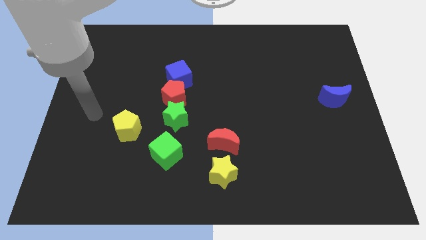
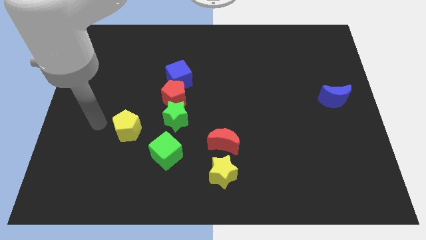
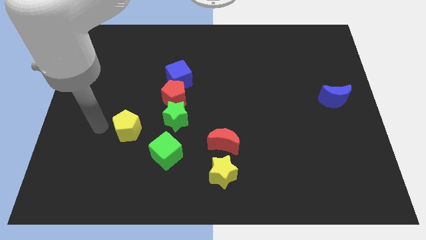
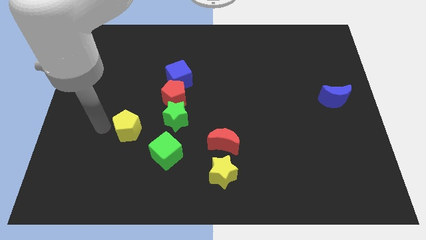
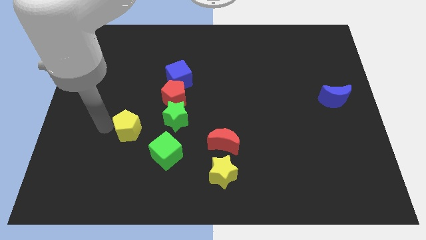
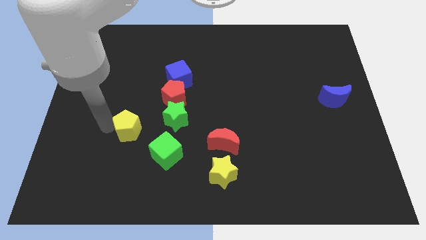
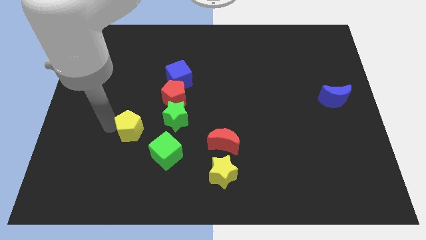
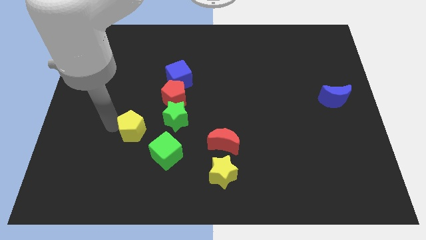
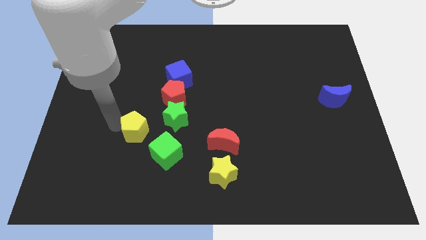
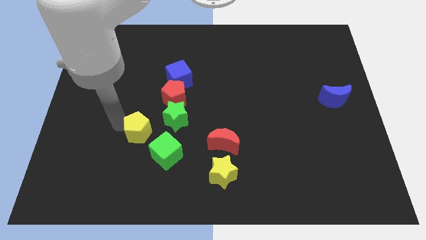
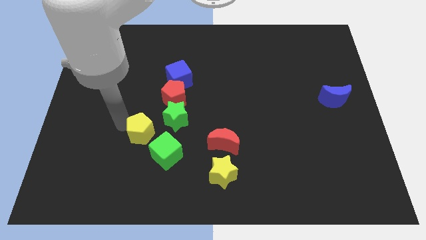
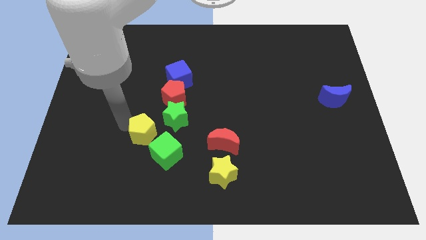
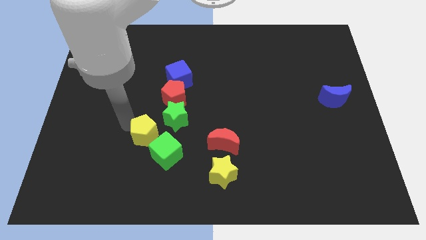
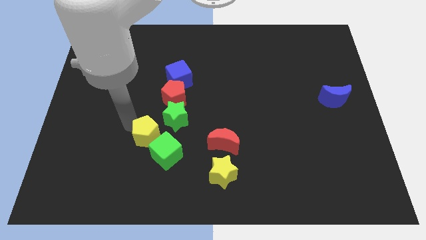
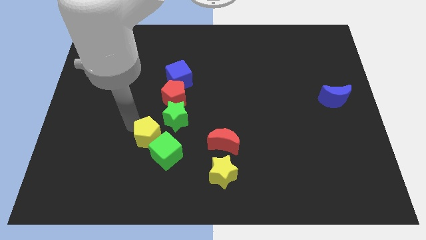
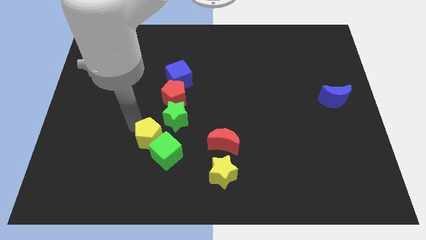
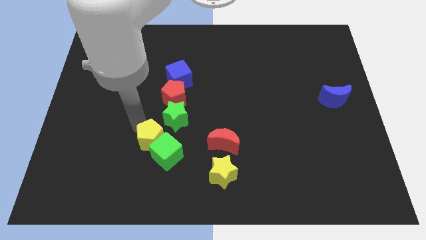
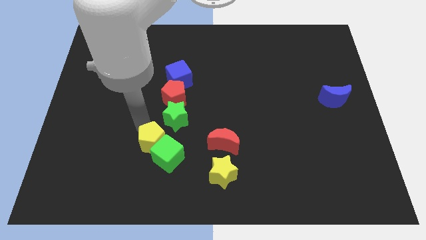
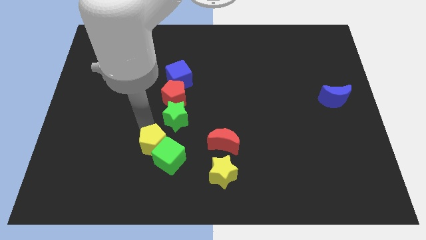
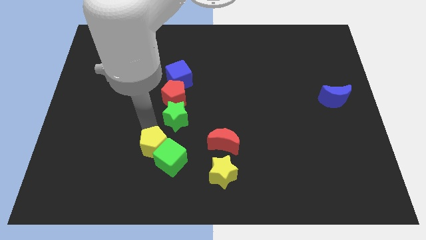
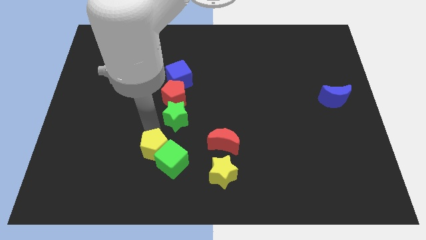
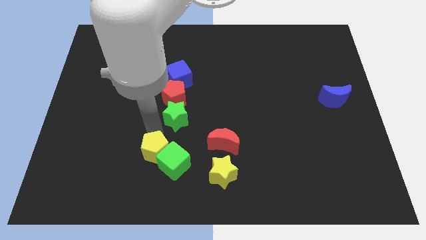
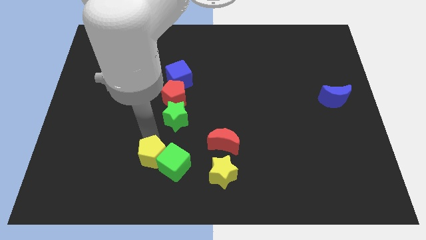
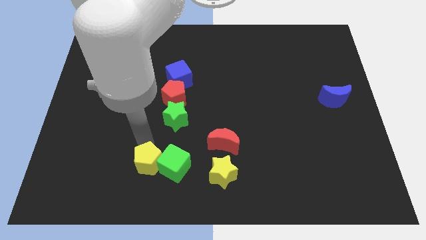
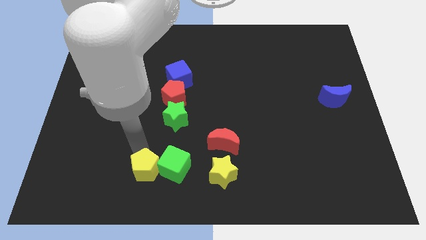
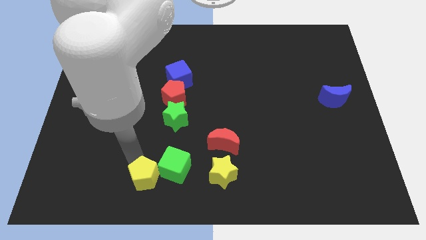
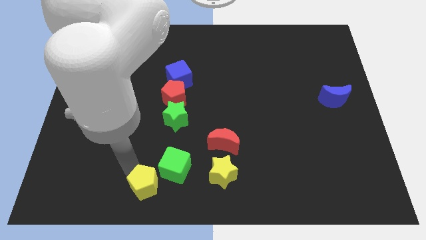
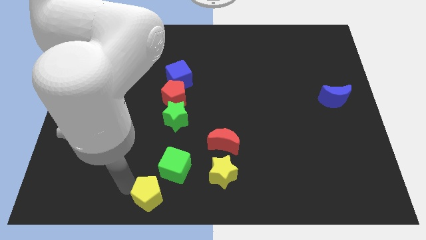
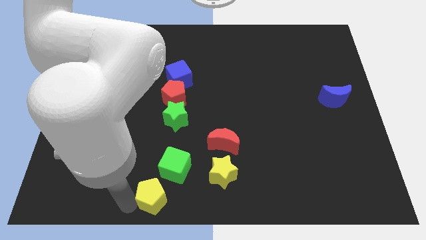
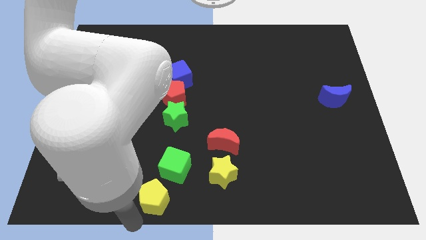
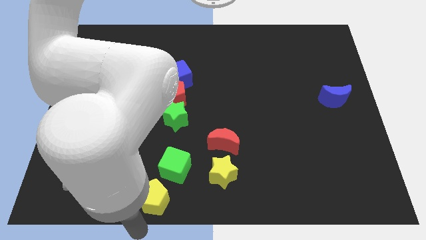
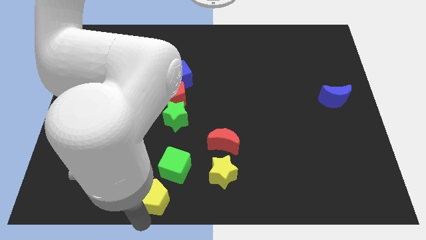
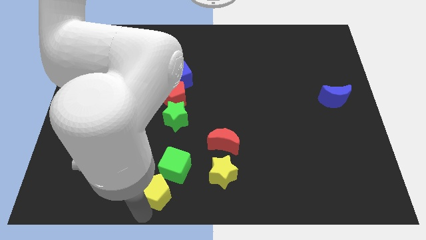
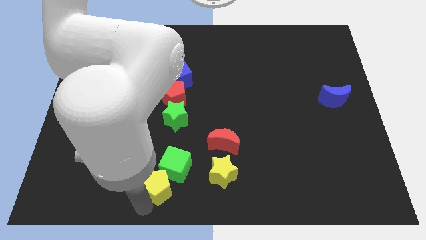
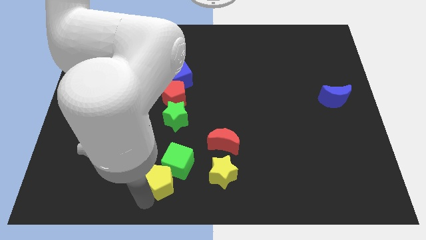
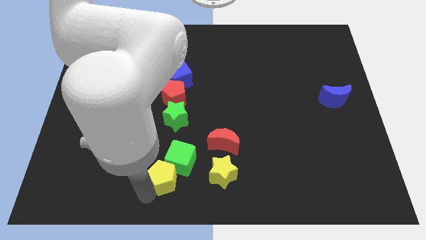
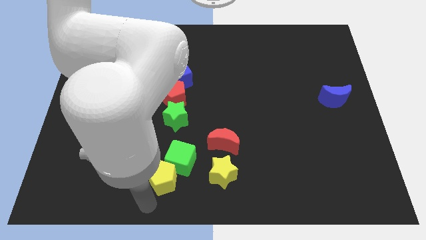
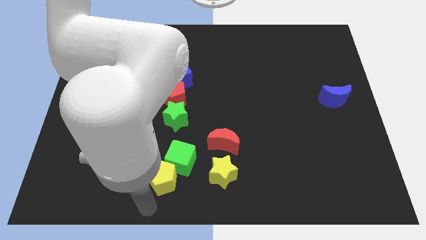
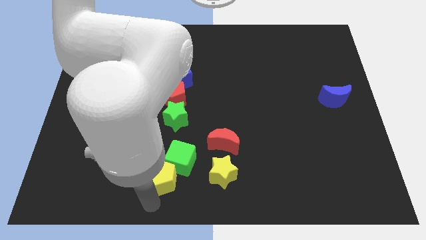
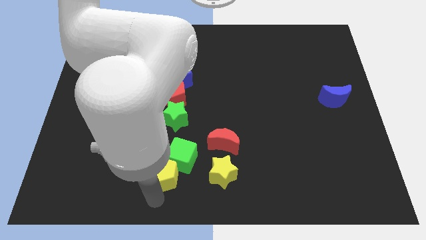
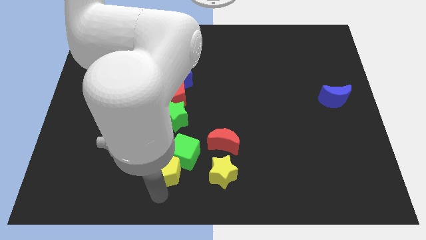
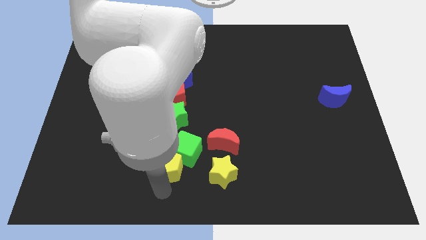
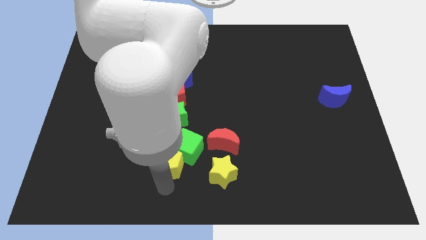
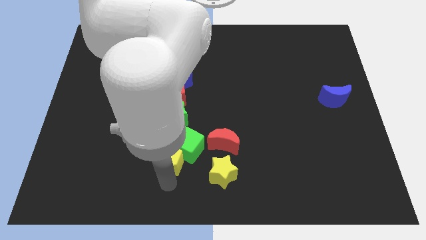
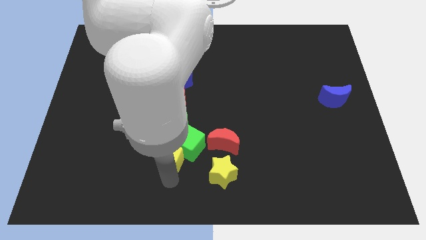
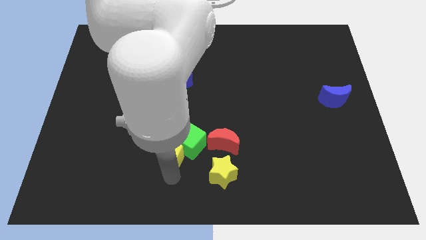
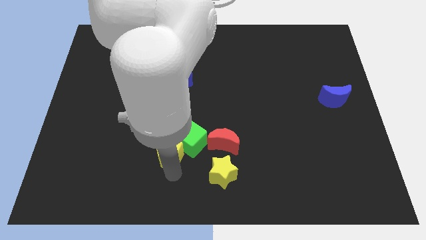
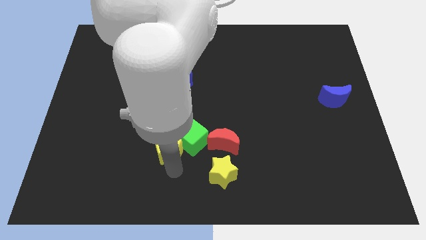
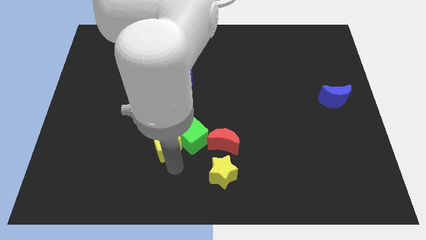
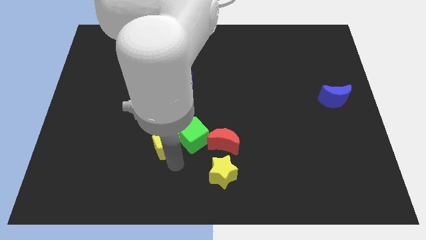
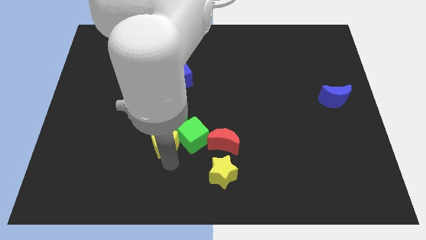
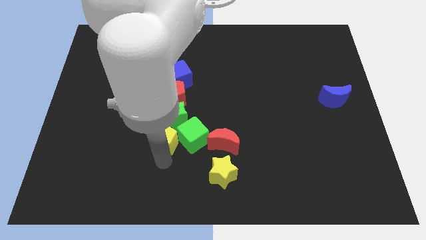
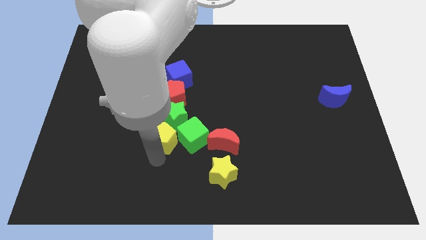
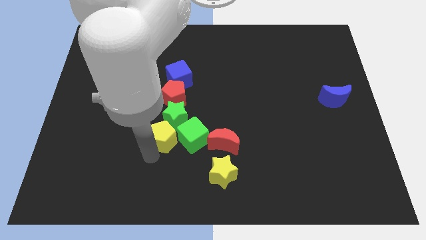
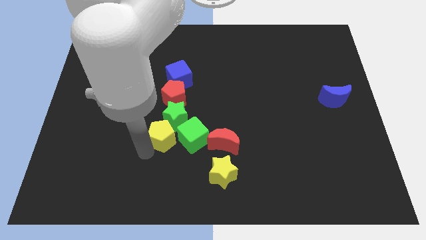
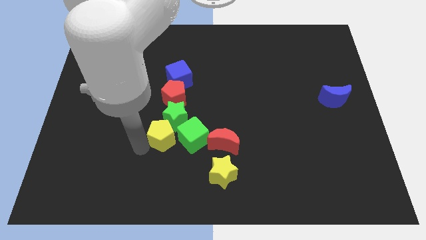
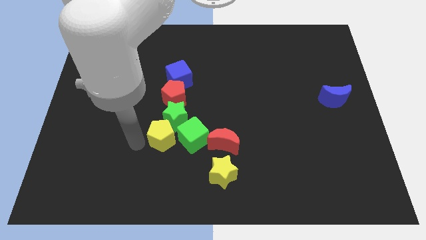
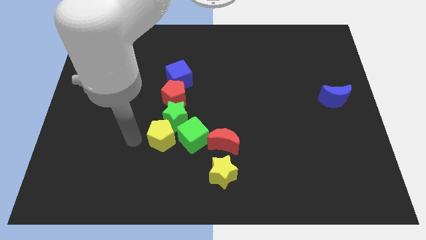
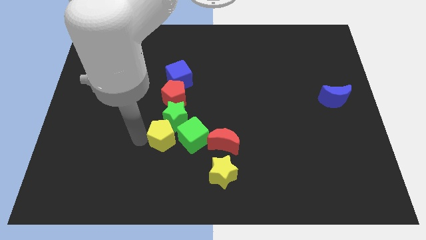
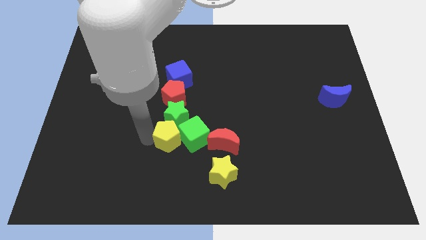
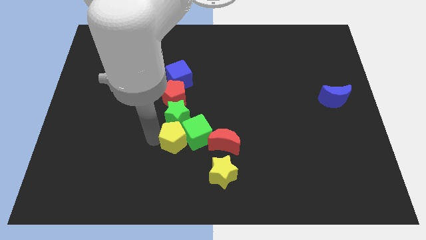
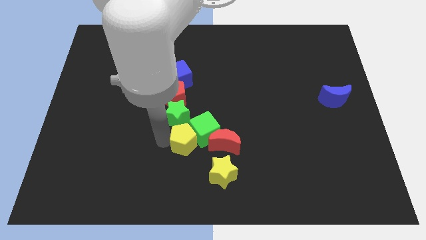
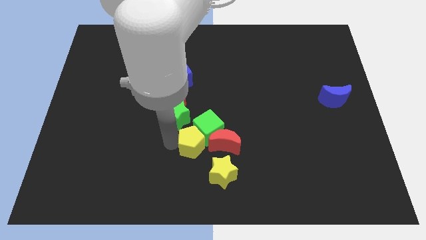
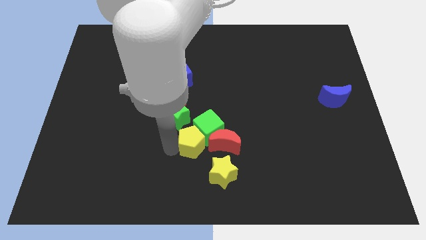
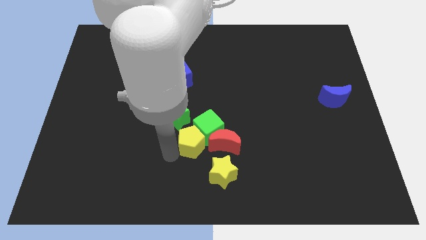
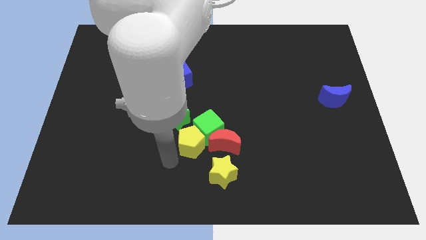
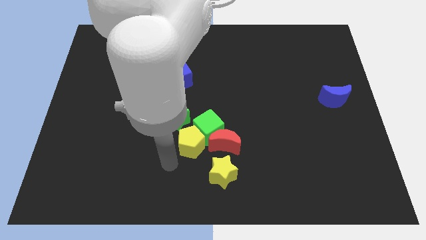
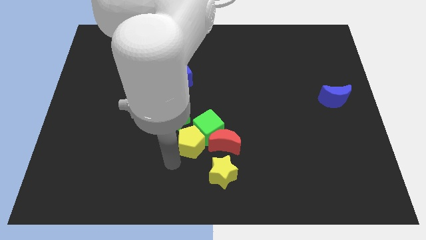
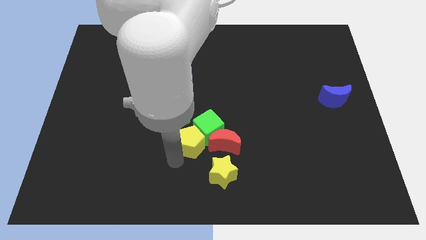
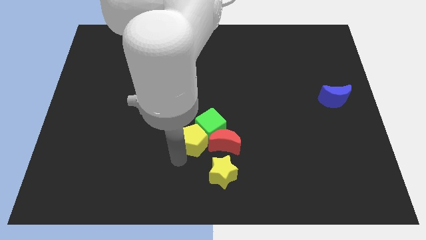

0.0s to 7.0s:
move the yellow pentagon to the middle
